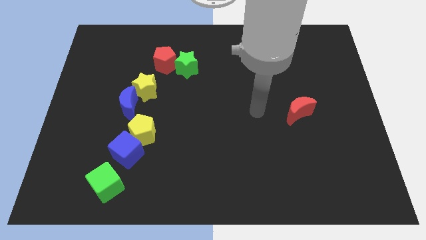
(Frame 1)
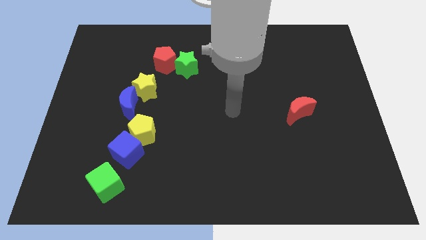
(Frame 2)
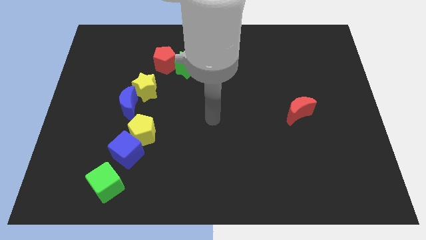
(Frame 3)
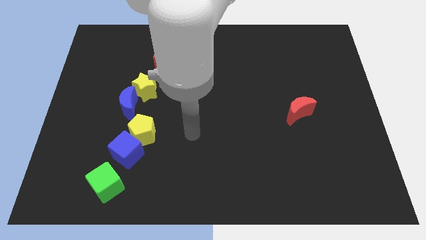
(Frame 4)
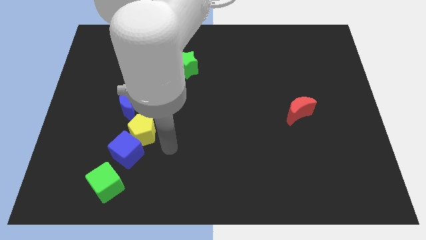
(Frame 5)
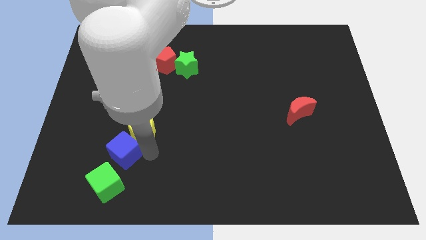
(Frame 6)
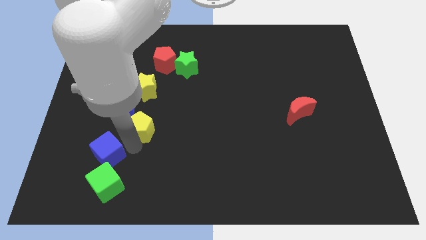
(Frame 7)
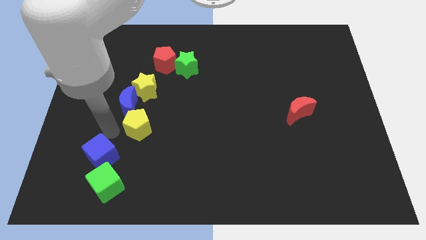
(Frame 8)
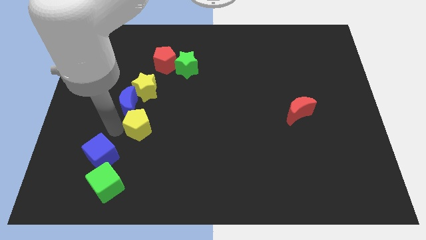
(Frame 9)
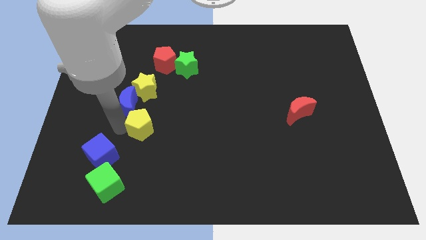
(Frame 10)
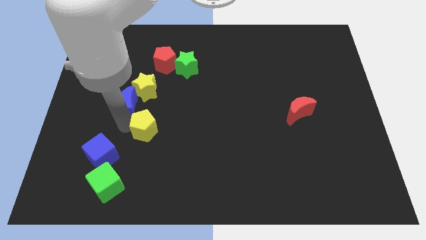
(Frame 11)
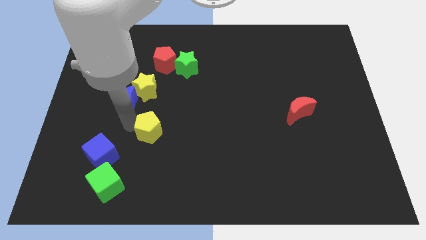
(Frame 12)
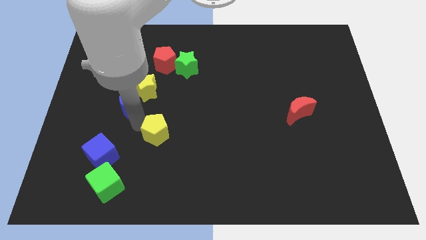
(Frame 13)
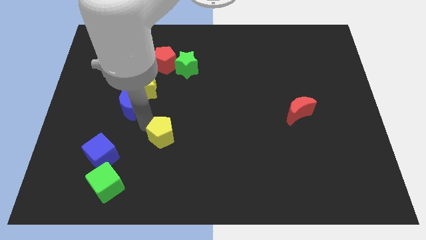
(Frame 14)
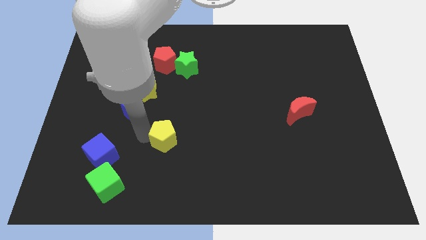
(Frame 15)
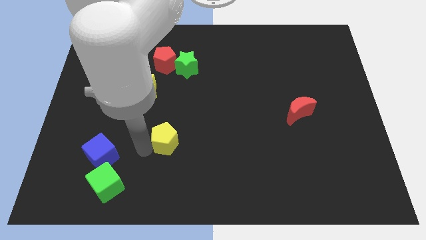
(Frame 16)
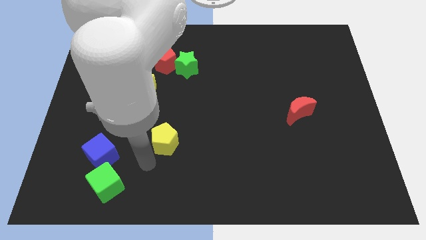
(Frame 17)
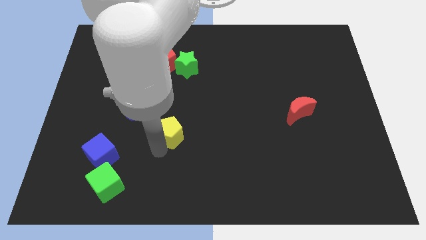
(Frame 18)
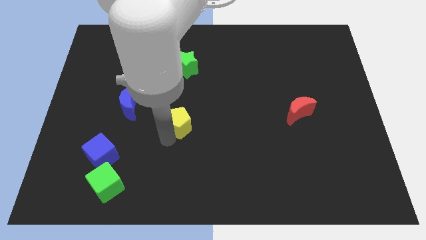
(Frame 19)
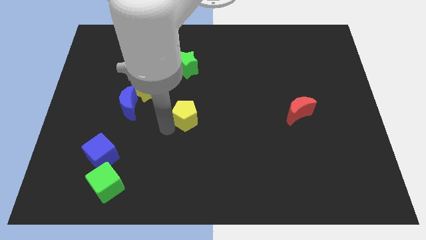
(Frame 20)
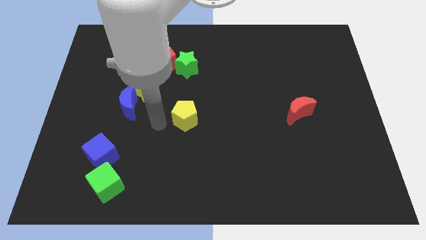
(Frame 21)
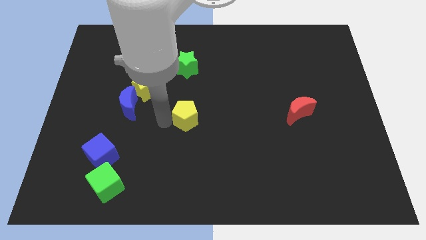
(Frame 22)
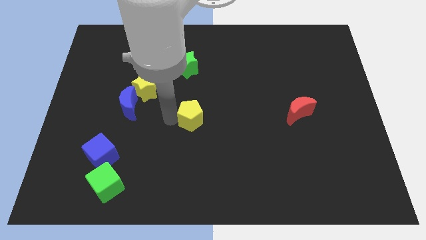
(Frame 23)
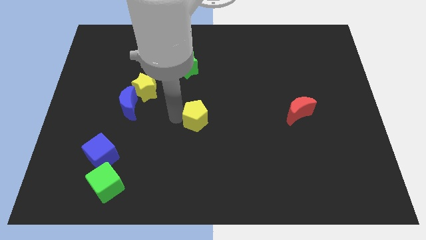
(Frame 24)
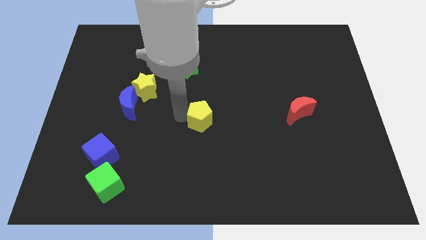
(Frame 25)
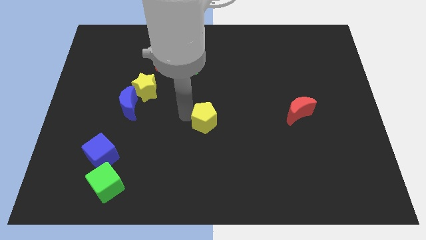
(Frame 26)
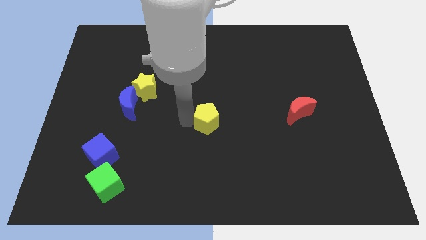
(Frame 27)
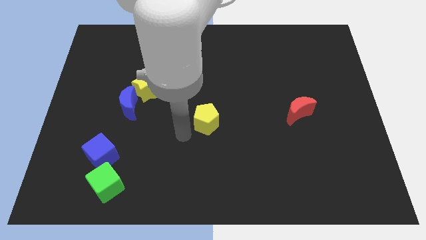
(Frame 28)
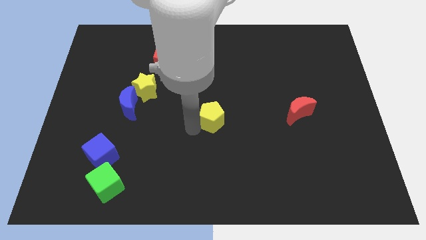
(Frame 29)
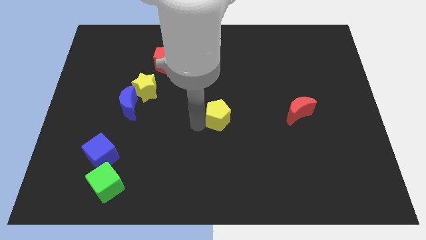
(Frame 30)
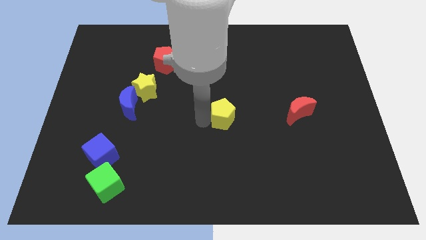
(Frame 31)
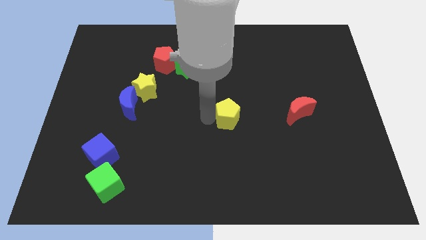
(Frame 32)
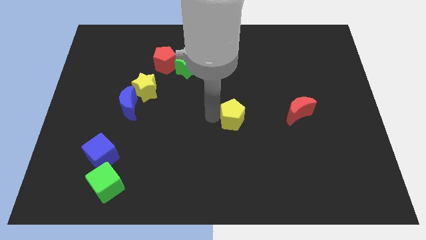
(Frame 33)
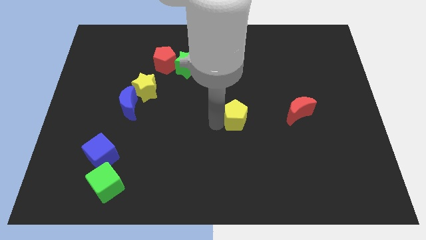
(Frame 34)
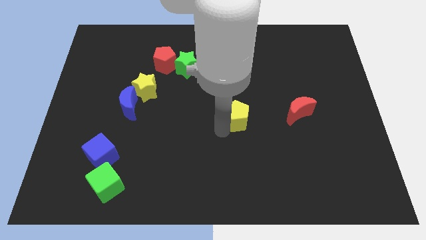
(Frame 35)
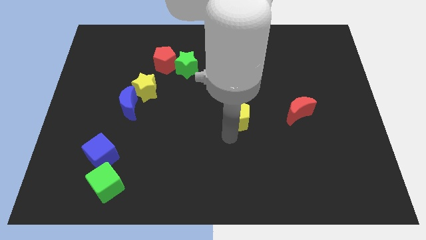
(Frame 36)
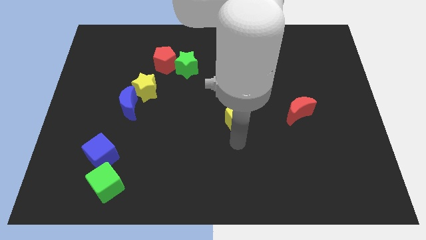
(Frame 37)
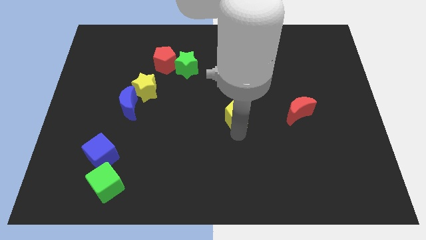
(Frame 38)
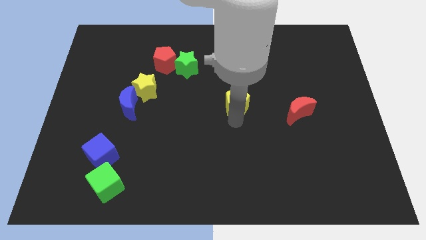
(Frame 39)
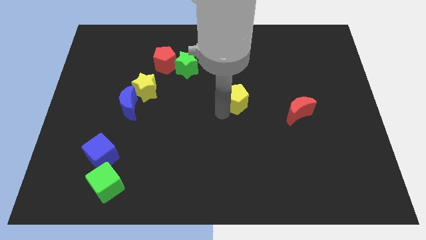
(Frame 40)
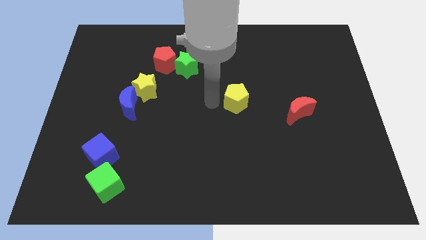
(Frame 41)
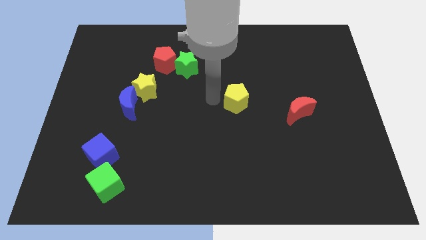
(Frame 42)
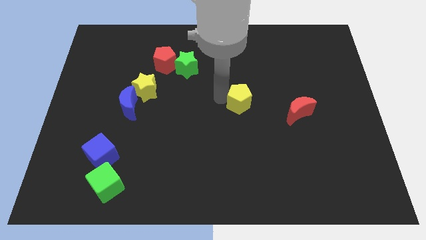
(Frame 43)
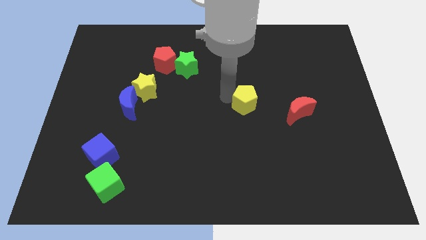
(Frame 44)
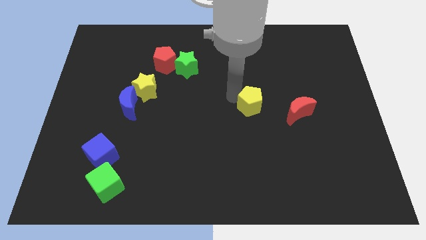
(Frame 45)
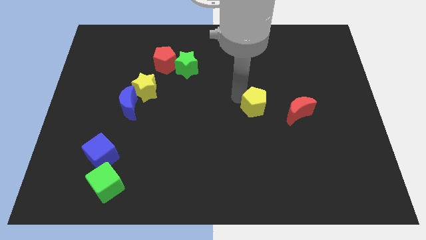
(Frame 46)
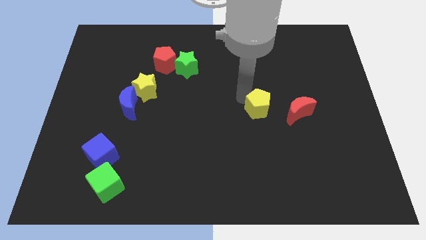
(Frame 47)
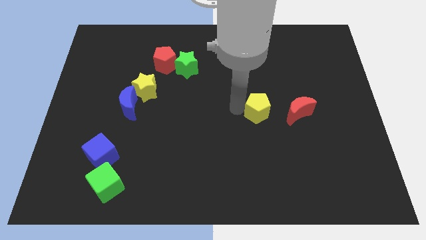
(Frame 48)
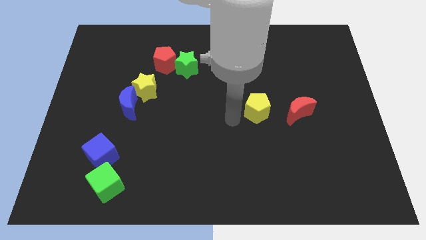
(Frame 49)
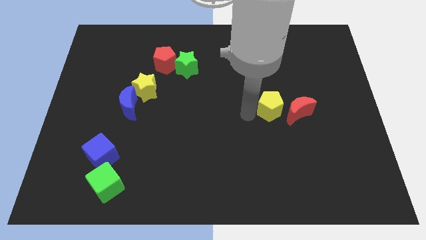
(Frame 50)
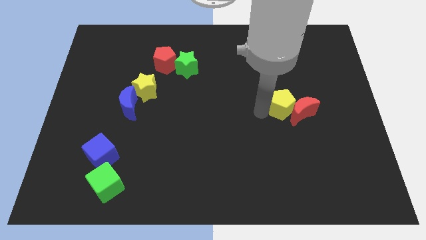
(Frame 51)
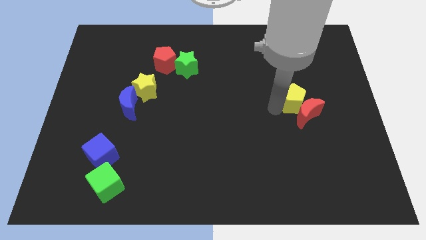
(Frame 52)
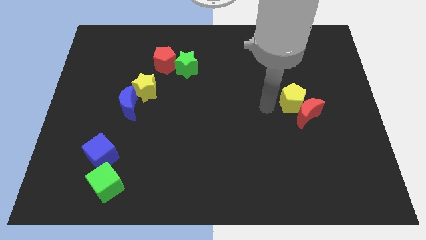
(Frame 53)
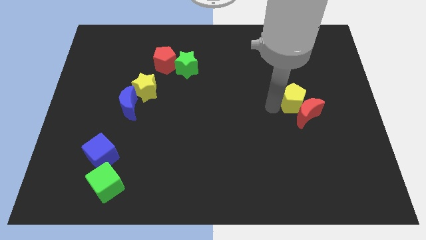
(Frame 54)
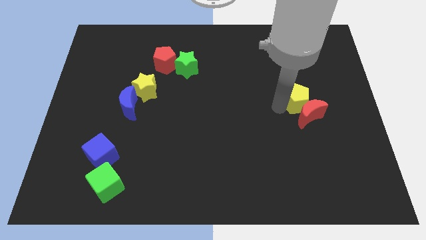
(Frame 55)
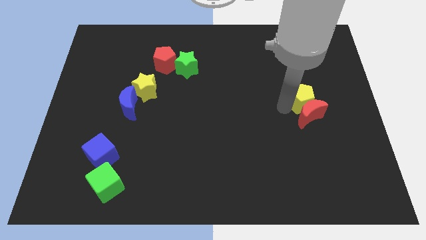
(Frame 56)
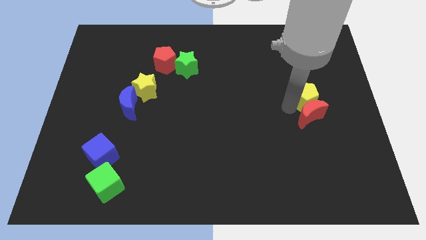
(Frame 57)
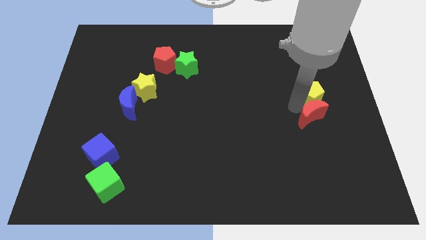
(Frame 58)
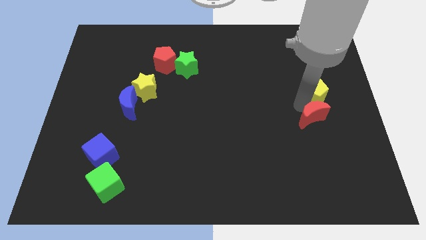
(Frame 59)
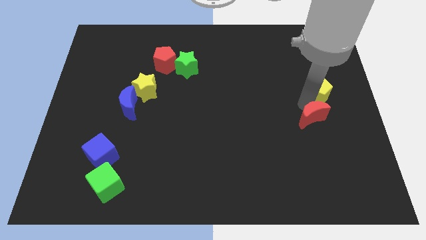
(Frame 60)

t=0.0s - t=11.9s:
slide the yellow pentagon to the right side of the board
